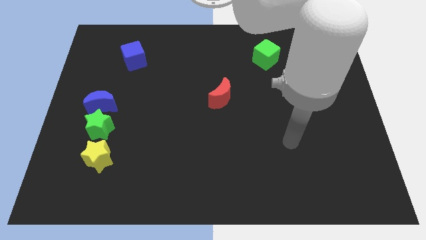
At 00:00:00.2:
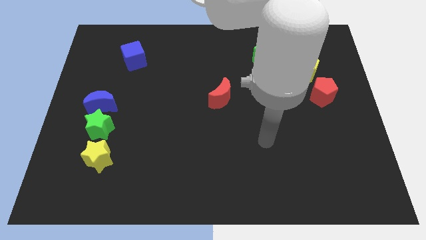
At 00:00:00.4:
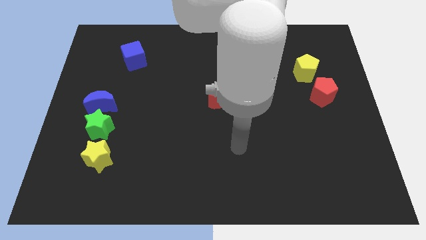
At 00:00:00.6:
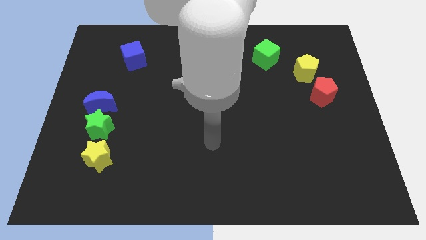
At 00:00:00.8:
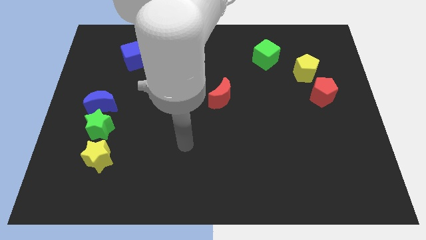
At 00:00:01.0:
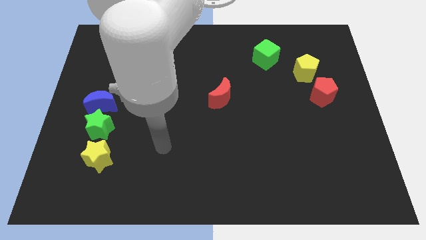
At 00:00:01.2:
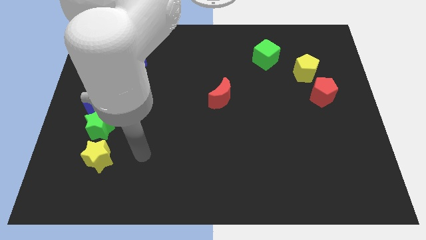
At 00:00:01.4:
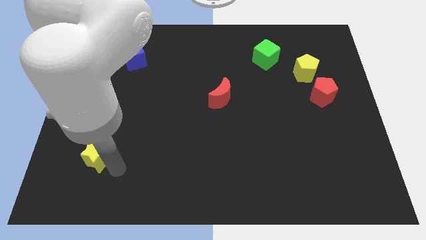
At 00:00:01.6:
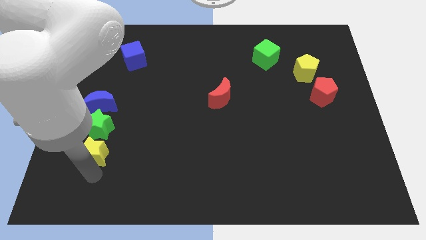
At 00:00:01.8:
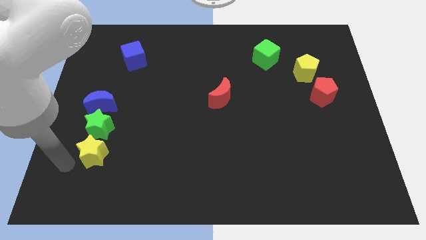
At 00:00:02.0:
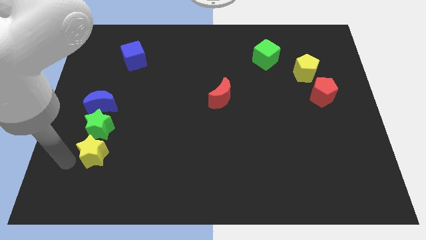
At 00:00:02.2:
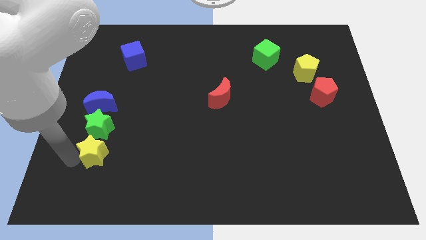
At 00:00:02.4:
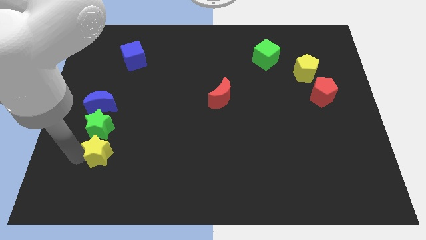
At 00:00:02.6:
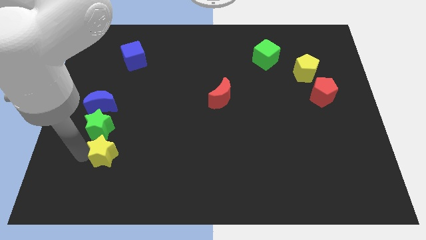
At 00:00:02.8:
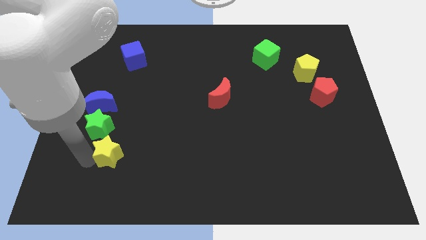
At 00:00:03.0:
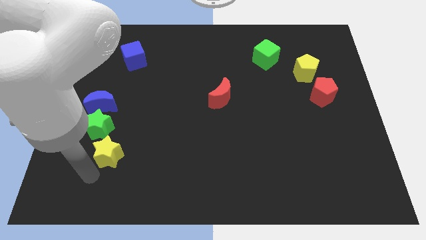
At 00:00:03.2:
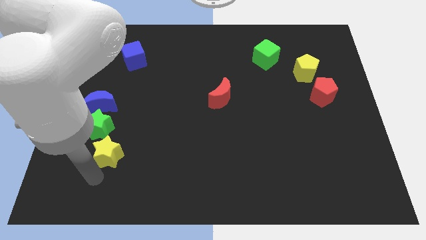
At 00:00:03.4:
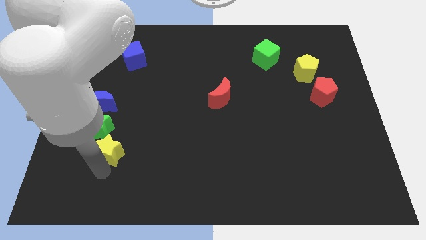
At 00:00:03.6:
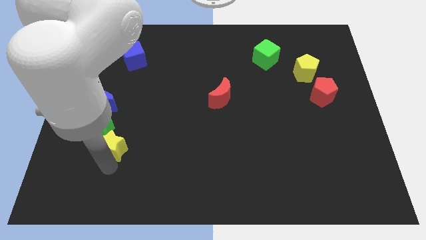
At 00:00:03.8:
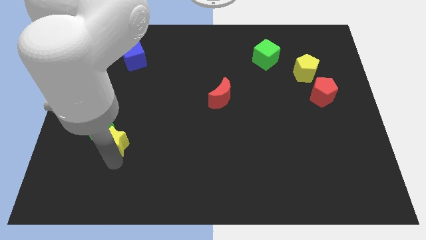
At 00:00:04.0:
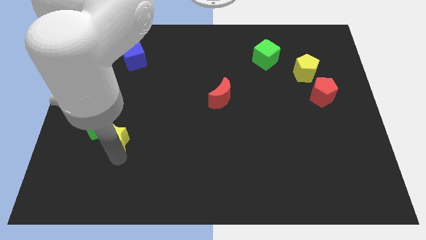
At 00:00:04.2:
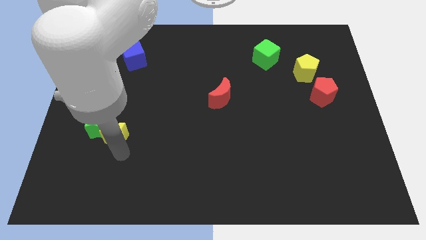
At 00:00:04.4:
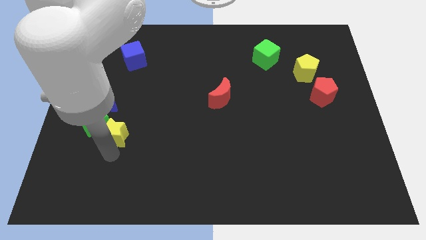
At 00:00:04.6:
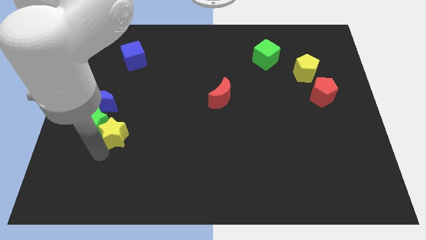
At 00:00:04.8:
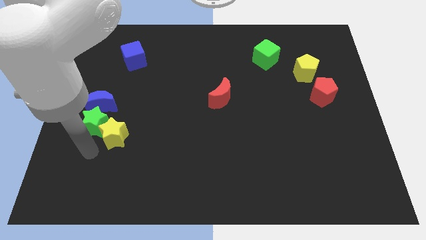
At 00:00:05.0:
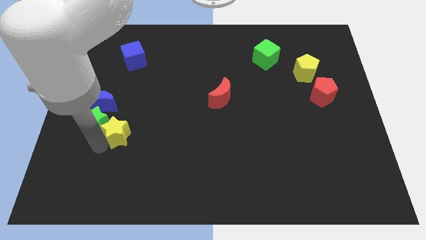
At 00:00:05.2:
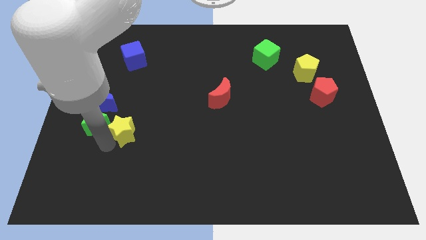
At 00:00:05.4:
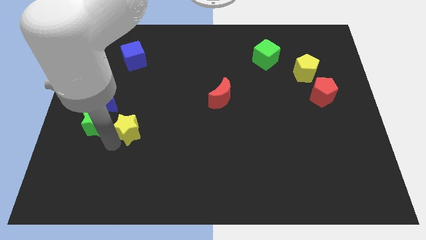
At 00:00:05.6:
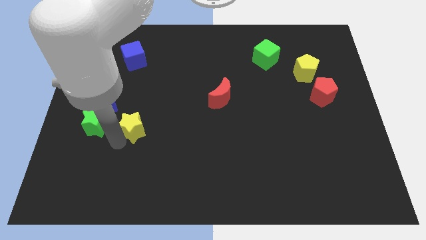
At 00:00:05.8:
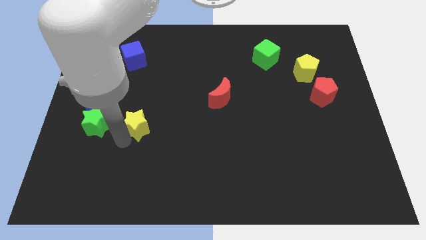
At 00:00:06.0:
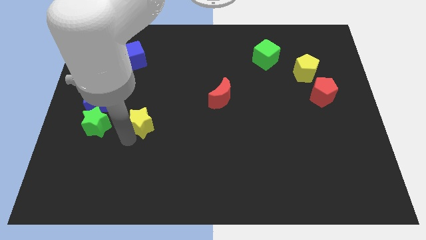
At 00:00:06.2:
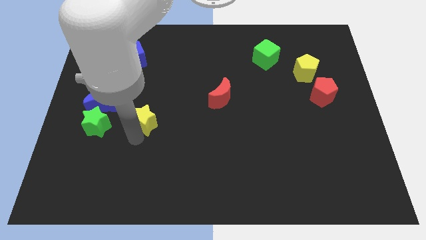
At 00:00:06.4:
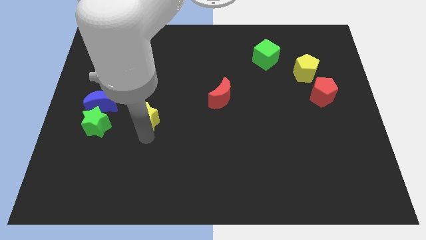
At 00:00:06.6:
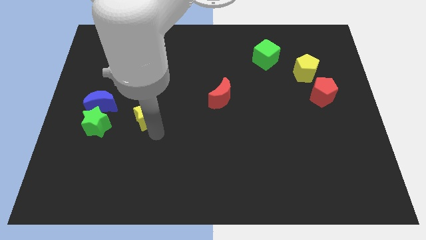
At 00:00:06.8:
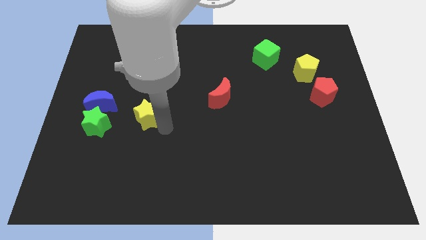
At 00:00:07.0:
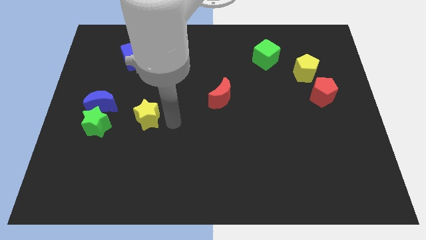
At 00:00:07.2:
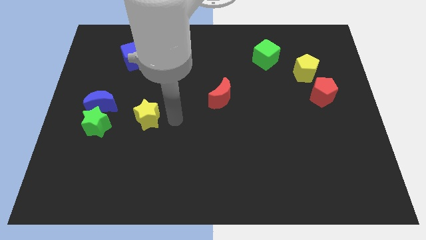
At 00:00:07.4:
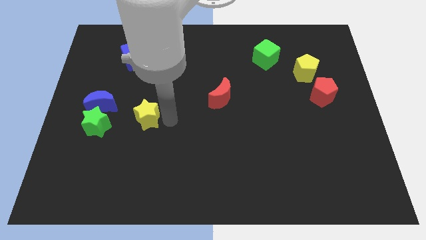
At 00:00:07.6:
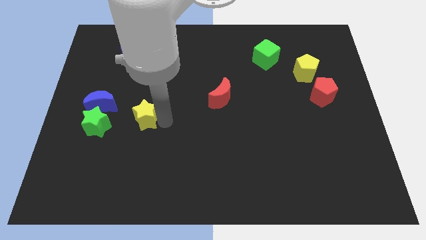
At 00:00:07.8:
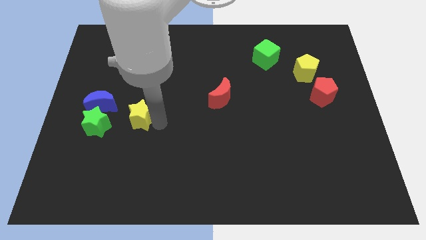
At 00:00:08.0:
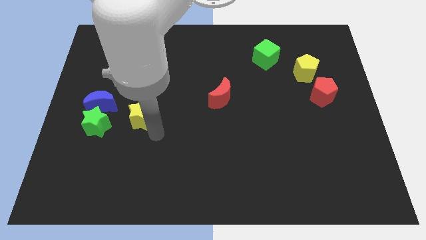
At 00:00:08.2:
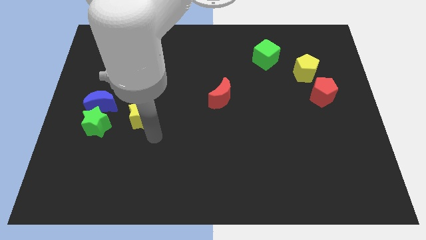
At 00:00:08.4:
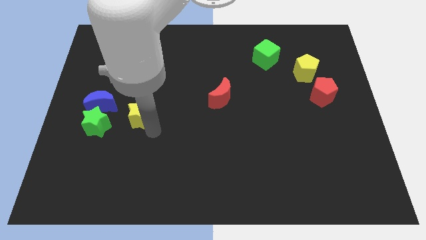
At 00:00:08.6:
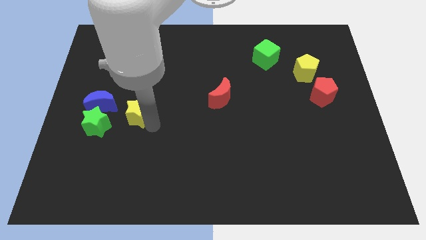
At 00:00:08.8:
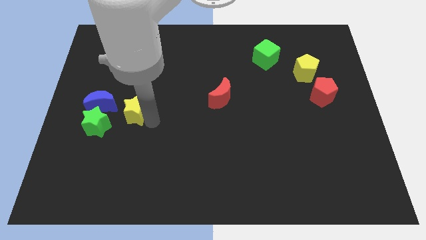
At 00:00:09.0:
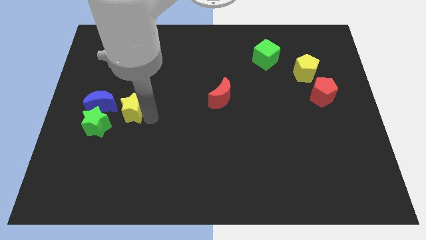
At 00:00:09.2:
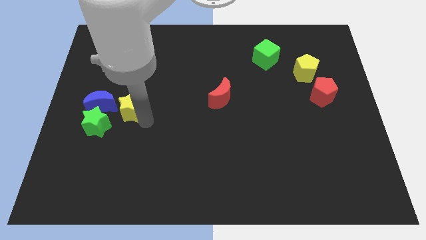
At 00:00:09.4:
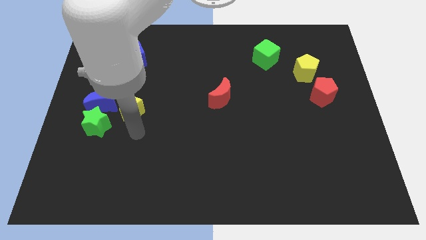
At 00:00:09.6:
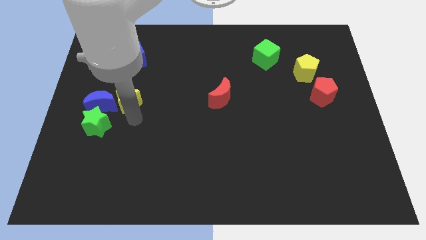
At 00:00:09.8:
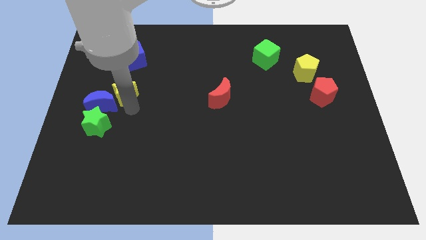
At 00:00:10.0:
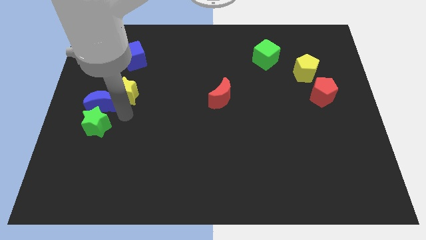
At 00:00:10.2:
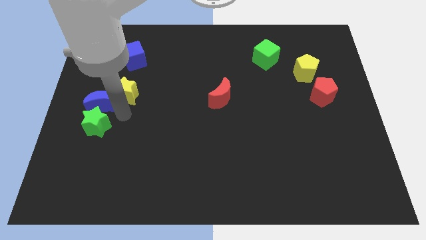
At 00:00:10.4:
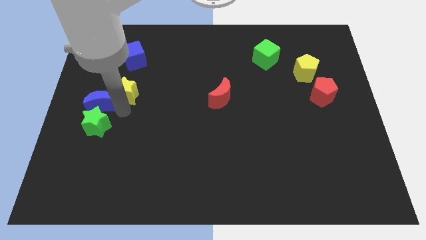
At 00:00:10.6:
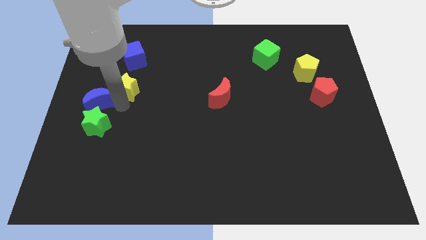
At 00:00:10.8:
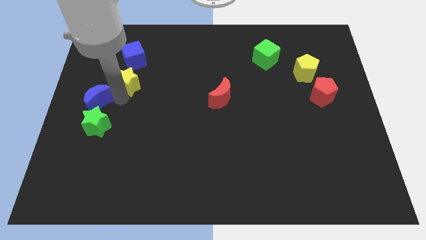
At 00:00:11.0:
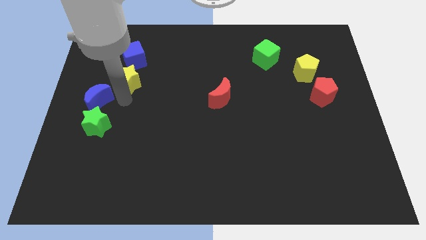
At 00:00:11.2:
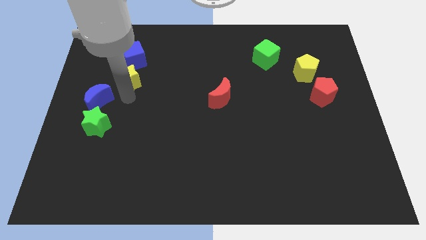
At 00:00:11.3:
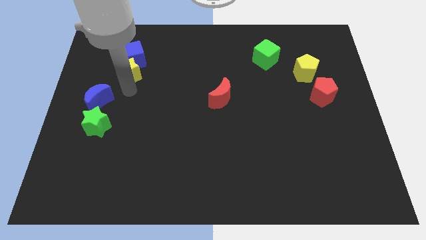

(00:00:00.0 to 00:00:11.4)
move the yellow star next to the blue cube

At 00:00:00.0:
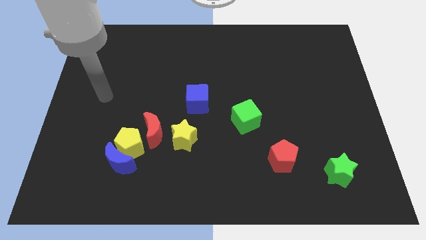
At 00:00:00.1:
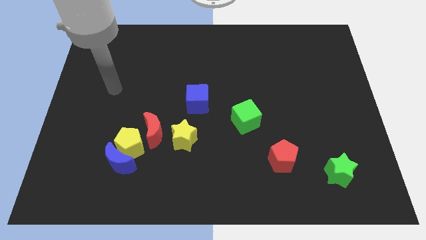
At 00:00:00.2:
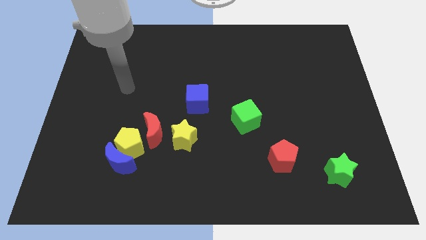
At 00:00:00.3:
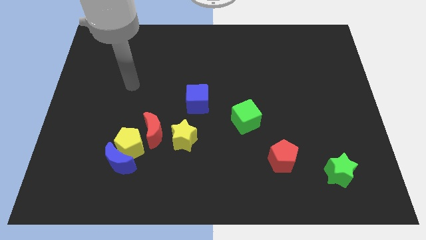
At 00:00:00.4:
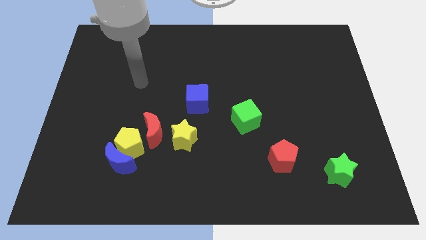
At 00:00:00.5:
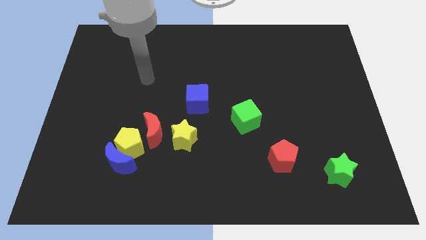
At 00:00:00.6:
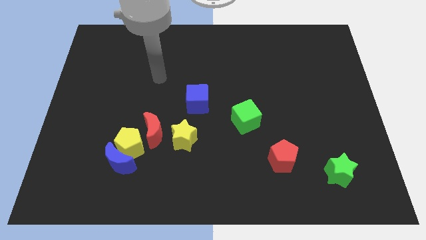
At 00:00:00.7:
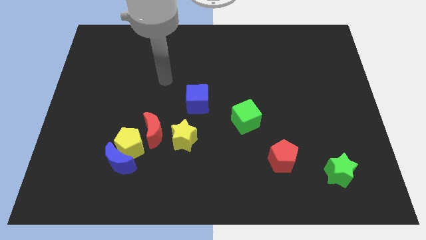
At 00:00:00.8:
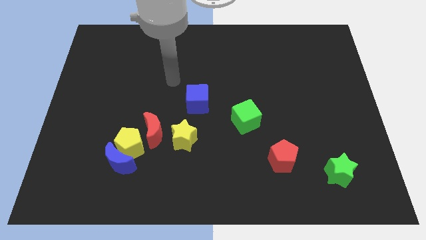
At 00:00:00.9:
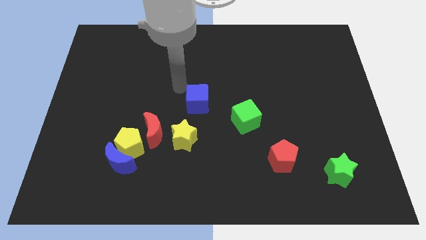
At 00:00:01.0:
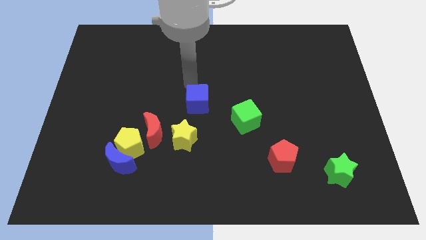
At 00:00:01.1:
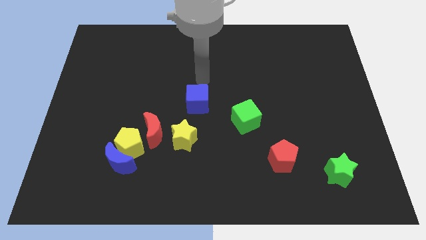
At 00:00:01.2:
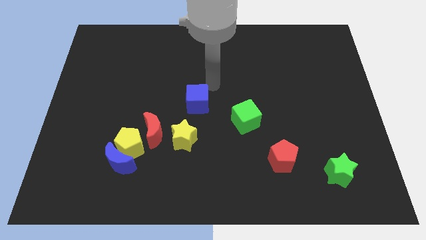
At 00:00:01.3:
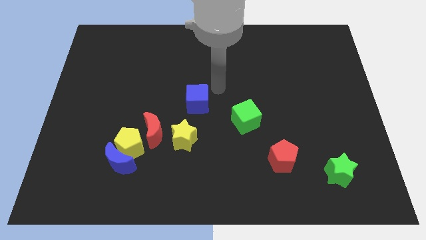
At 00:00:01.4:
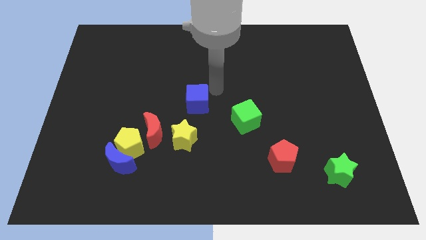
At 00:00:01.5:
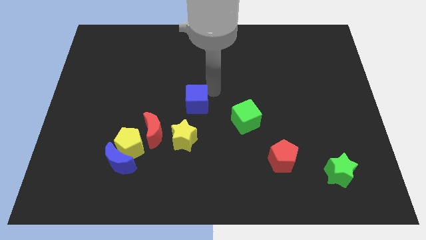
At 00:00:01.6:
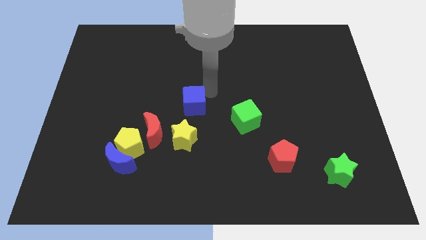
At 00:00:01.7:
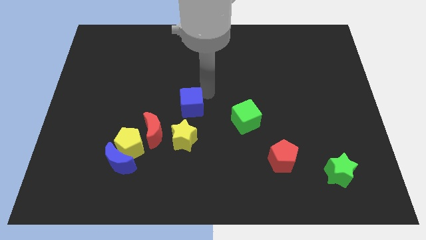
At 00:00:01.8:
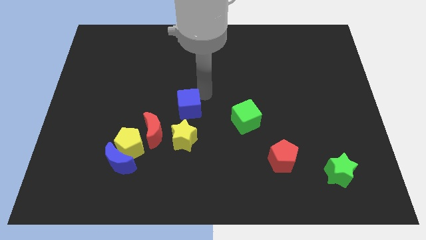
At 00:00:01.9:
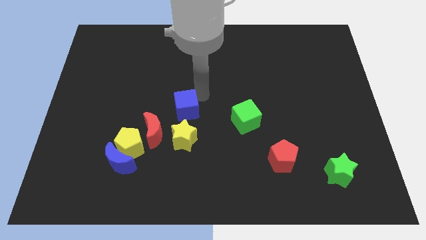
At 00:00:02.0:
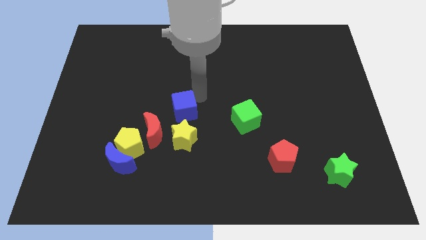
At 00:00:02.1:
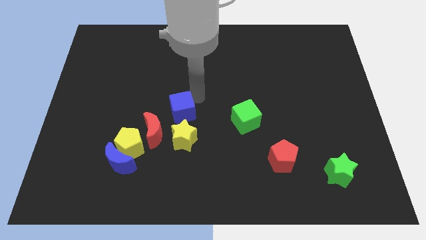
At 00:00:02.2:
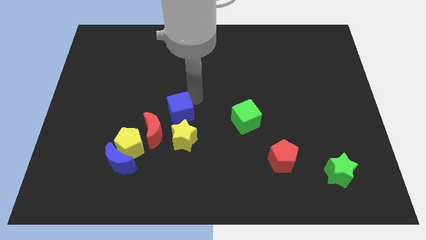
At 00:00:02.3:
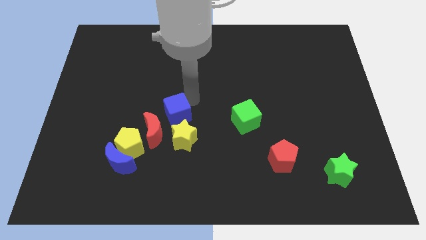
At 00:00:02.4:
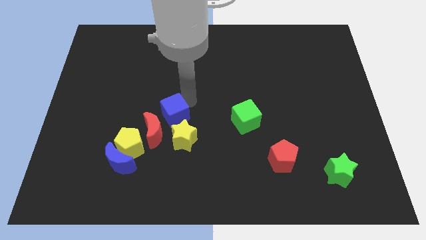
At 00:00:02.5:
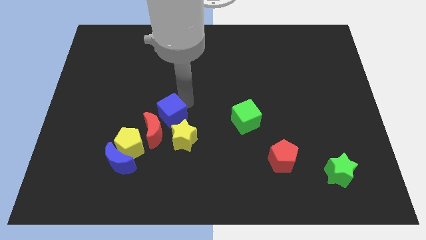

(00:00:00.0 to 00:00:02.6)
slide the blue cube to the red moon
